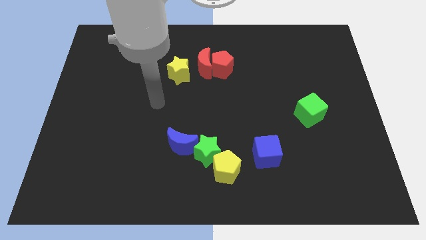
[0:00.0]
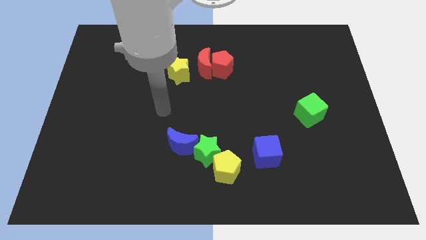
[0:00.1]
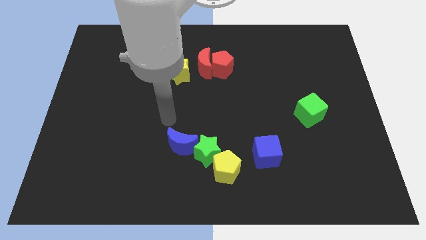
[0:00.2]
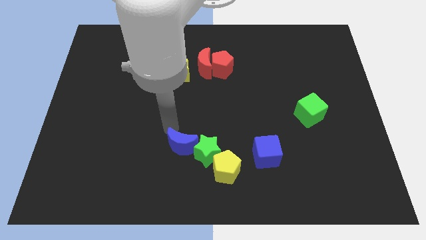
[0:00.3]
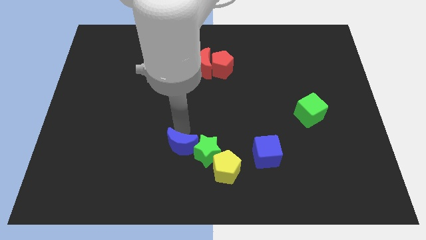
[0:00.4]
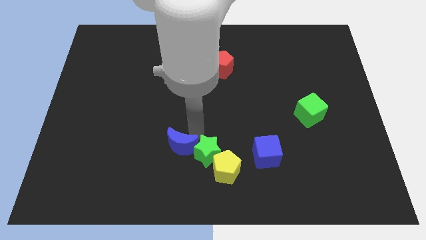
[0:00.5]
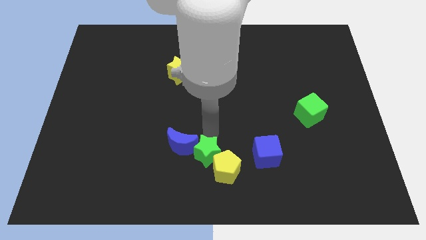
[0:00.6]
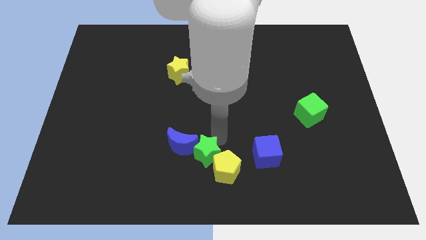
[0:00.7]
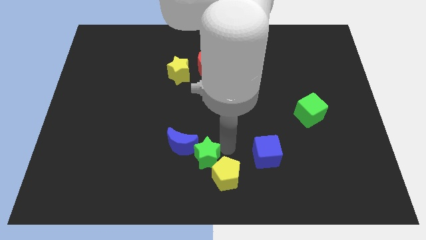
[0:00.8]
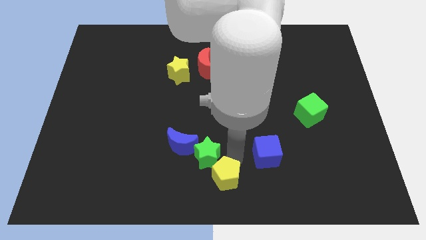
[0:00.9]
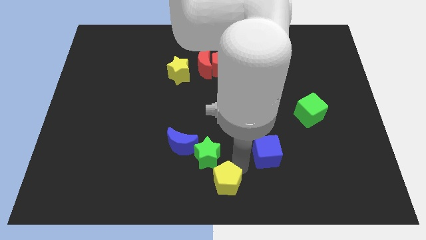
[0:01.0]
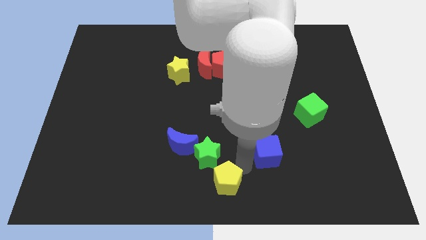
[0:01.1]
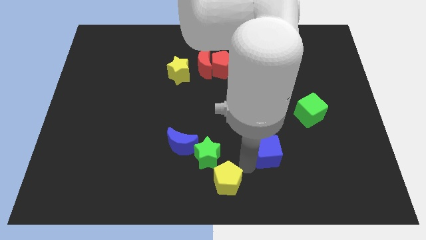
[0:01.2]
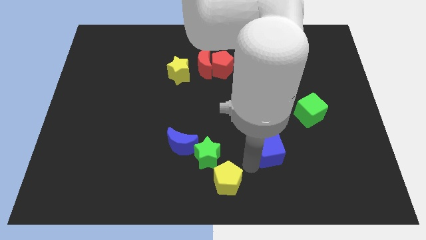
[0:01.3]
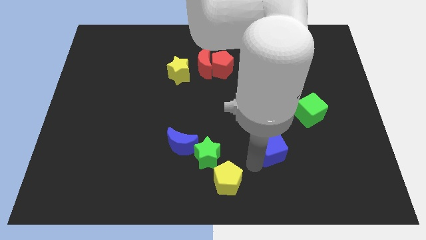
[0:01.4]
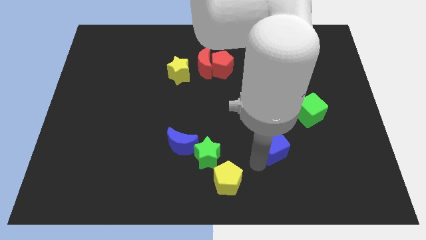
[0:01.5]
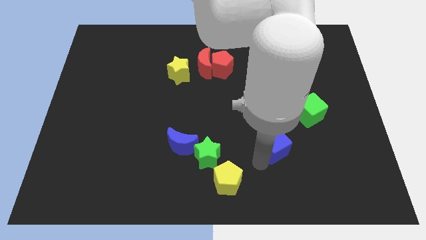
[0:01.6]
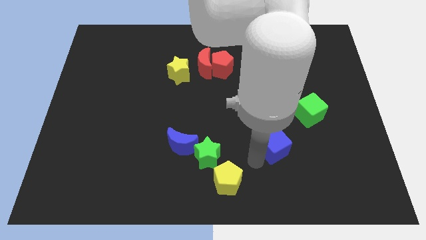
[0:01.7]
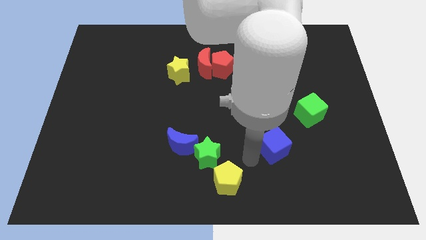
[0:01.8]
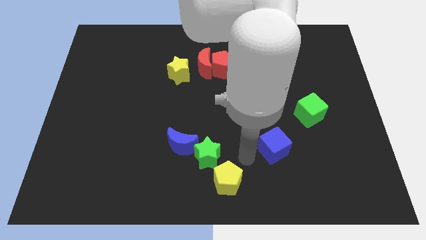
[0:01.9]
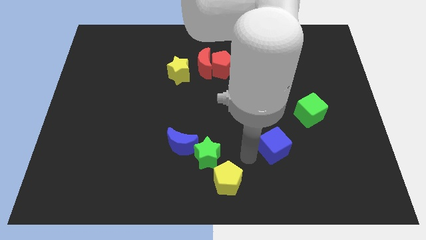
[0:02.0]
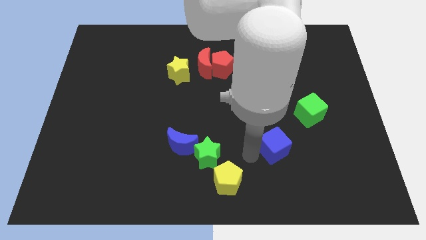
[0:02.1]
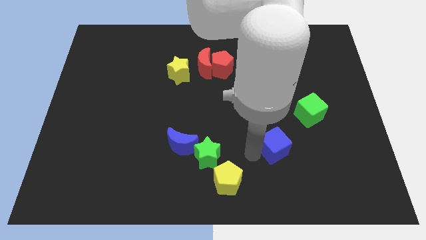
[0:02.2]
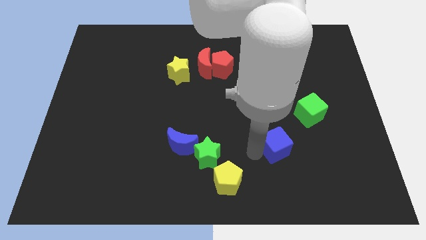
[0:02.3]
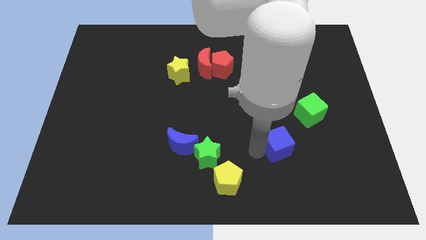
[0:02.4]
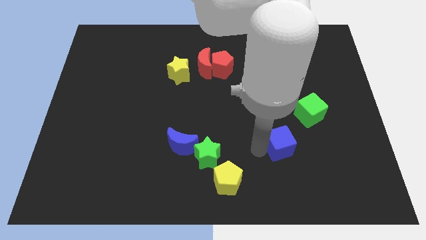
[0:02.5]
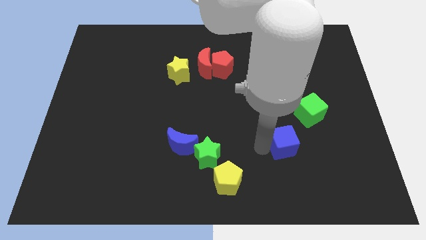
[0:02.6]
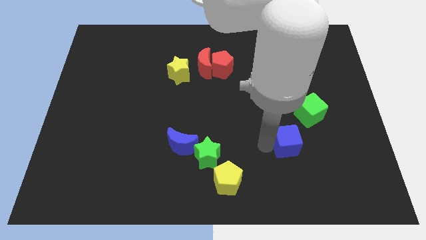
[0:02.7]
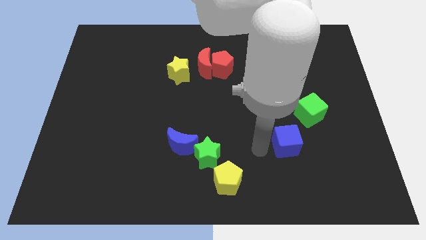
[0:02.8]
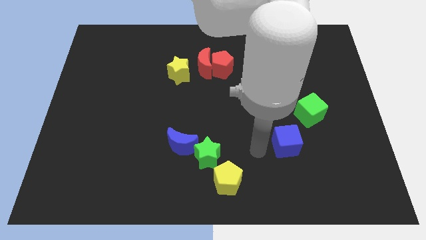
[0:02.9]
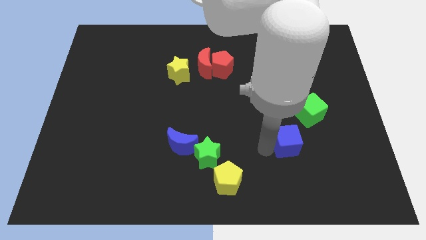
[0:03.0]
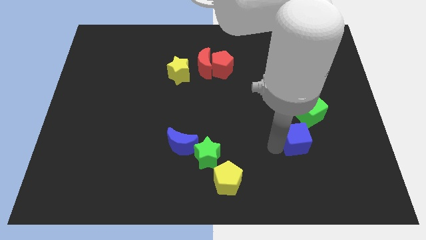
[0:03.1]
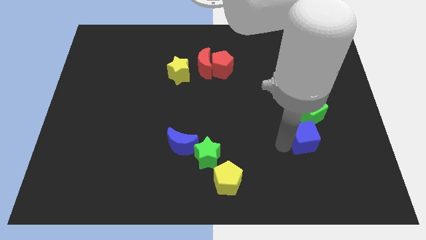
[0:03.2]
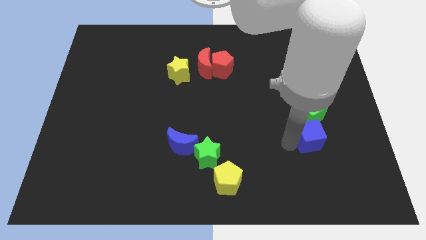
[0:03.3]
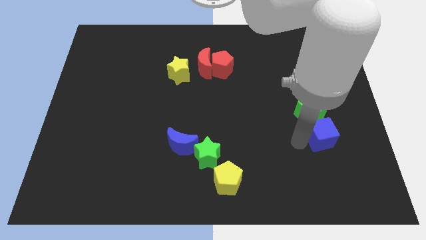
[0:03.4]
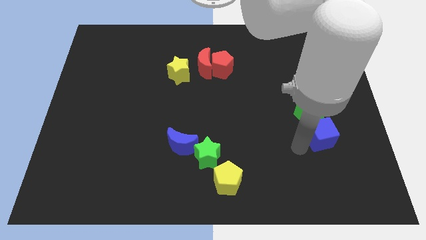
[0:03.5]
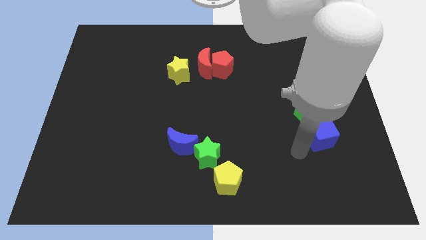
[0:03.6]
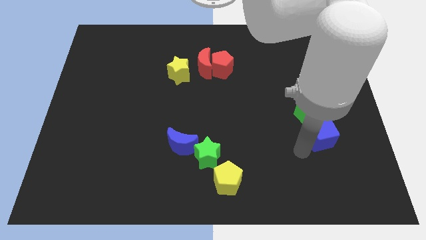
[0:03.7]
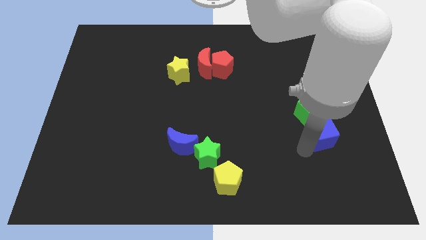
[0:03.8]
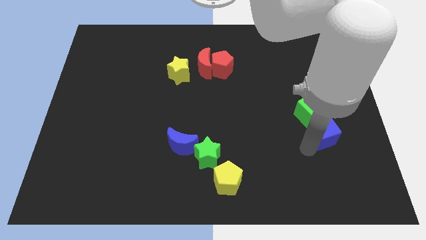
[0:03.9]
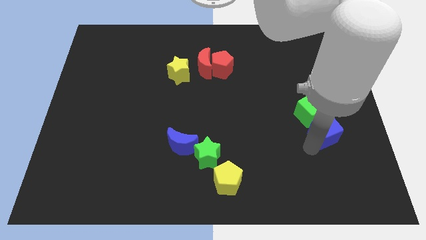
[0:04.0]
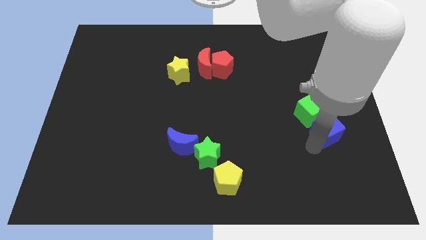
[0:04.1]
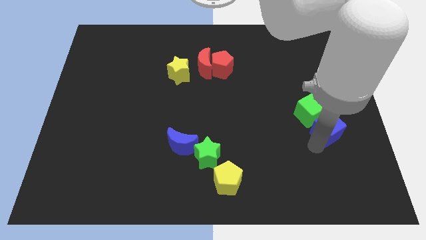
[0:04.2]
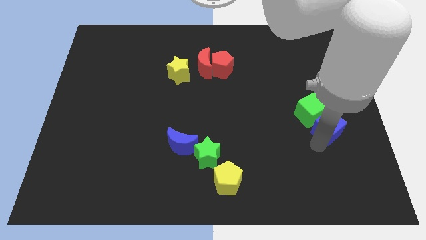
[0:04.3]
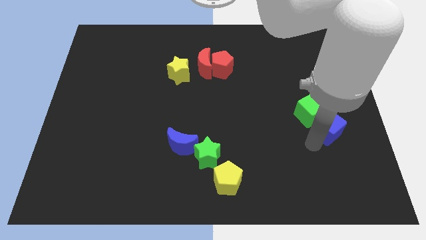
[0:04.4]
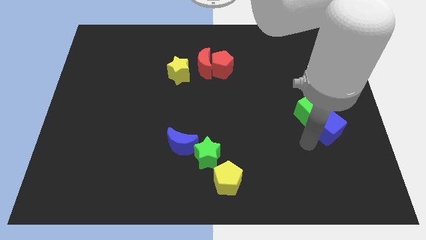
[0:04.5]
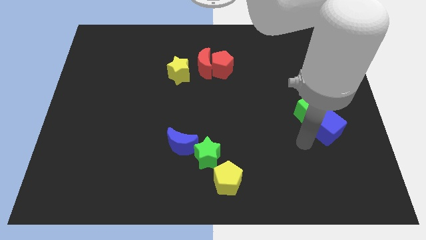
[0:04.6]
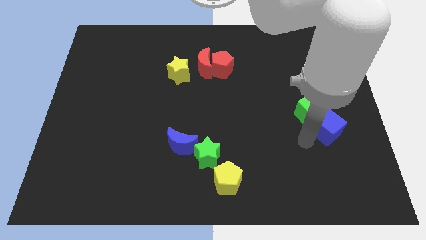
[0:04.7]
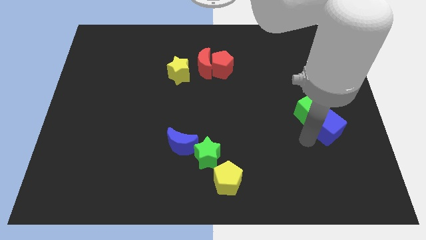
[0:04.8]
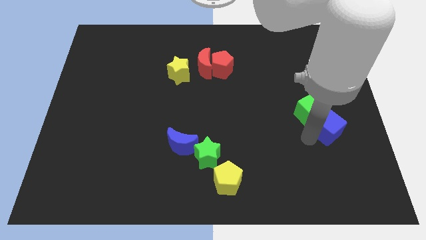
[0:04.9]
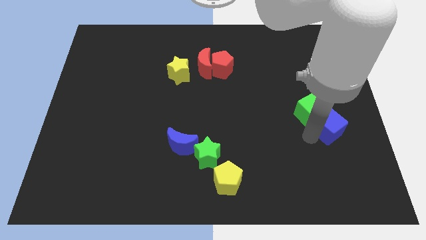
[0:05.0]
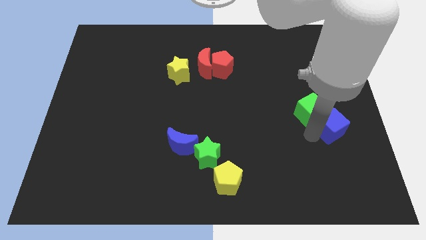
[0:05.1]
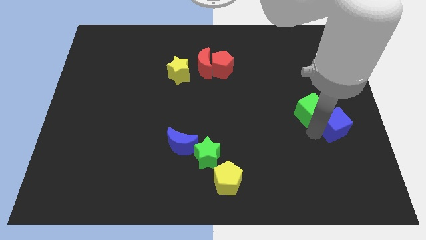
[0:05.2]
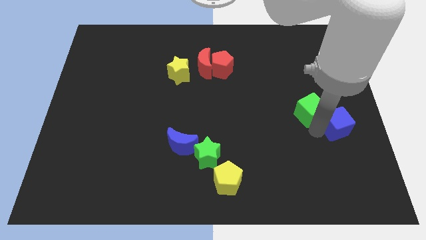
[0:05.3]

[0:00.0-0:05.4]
push the blue cube to the right side of the board

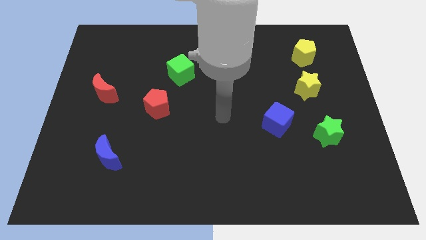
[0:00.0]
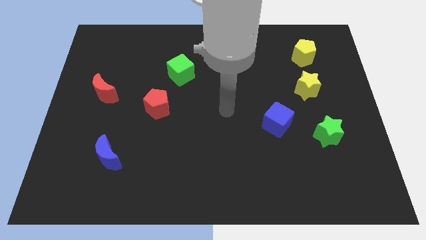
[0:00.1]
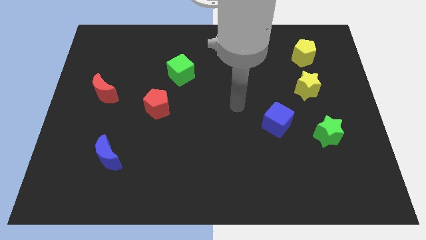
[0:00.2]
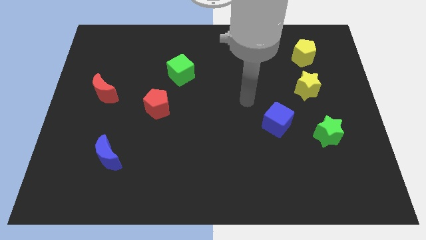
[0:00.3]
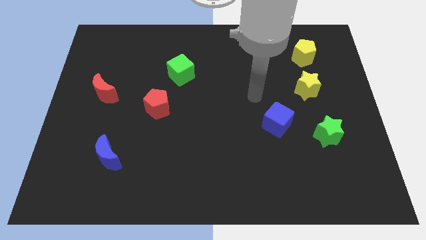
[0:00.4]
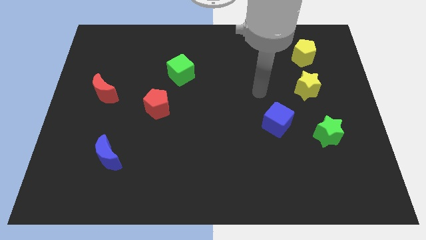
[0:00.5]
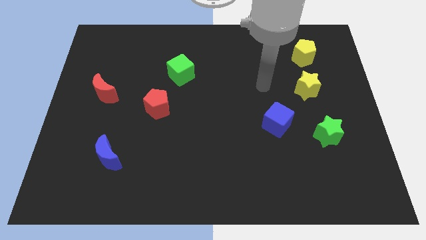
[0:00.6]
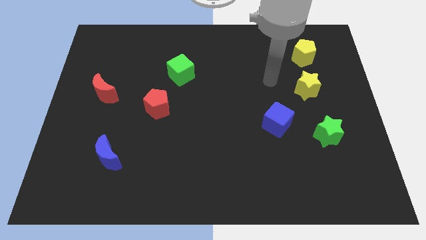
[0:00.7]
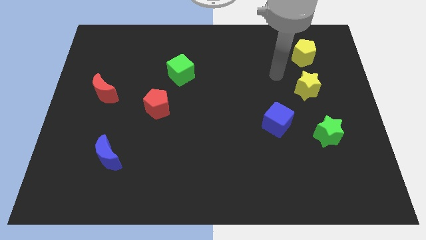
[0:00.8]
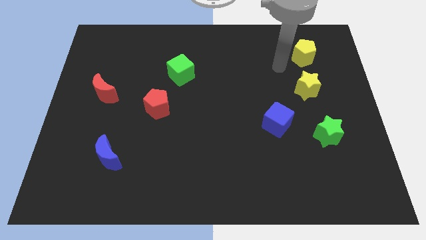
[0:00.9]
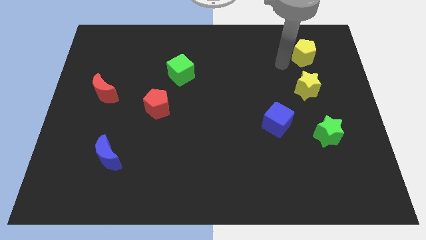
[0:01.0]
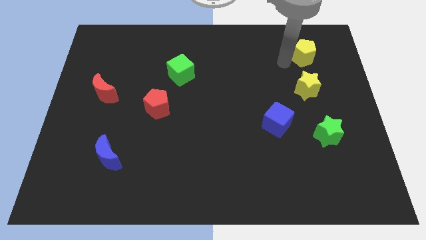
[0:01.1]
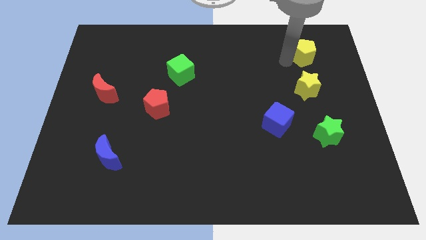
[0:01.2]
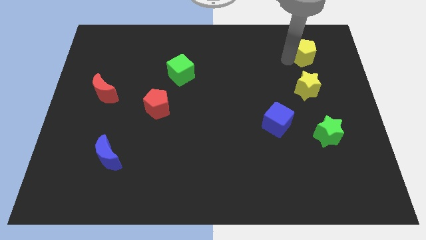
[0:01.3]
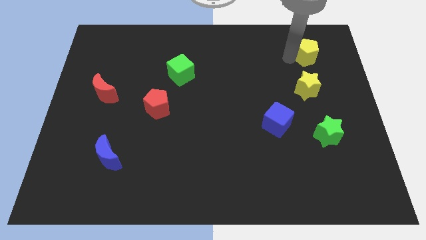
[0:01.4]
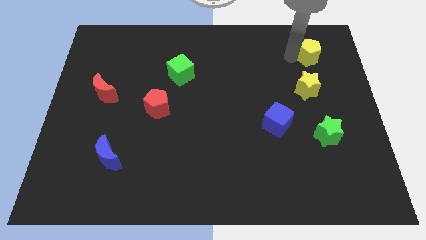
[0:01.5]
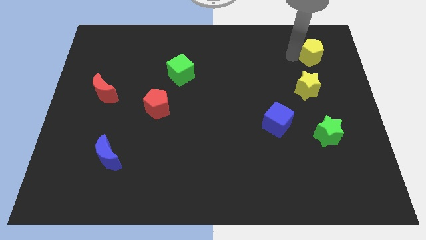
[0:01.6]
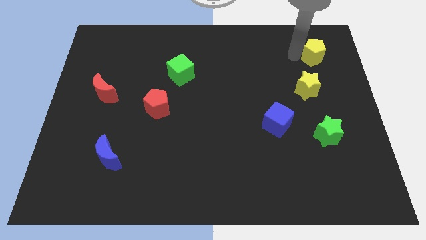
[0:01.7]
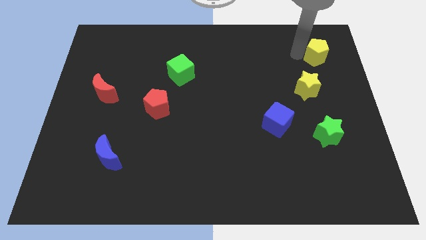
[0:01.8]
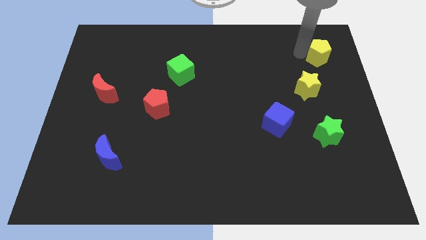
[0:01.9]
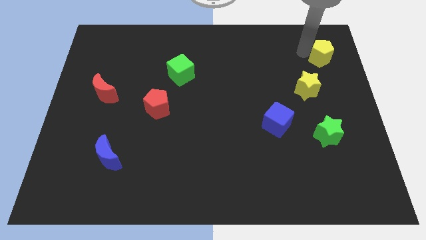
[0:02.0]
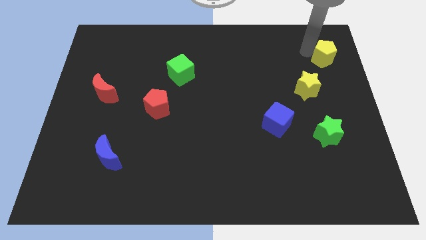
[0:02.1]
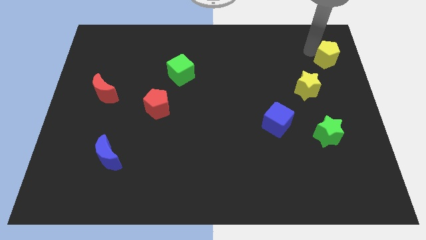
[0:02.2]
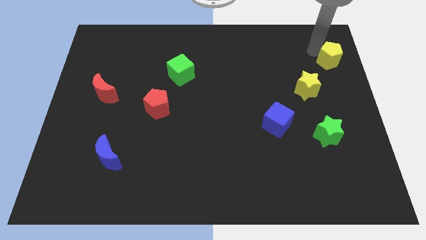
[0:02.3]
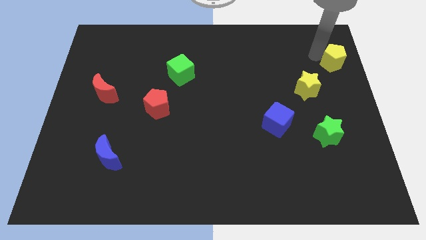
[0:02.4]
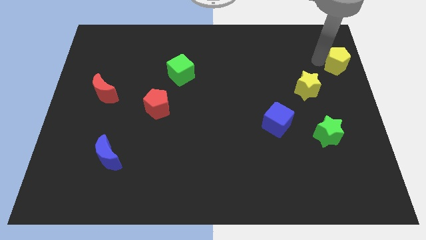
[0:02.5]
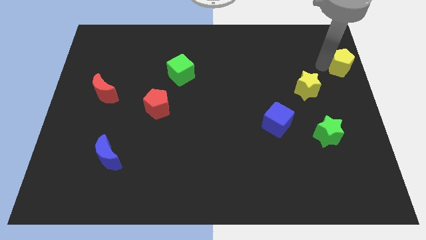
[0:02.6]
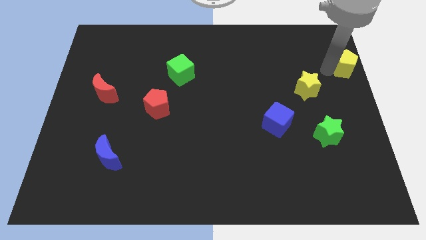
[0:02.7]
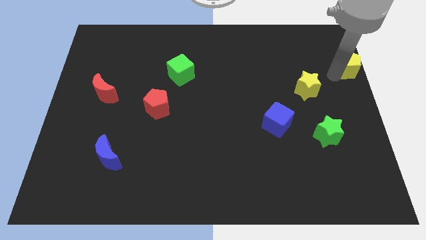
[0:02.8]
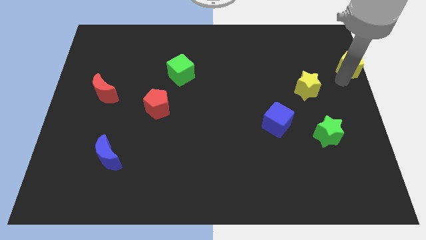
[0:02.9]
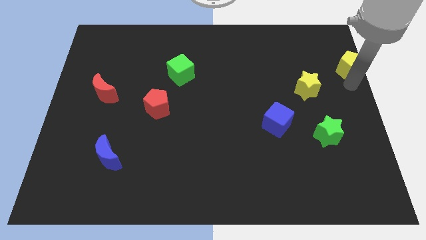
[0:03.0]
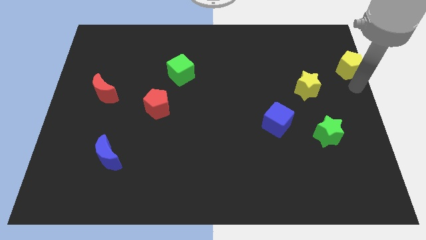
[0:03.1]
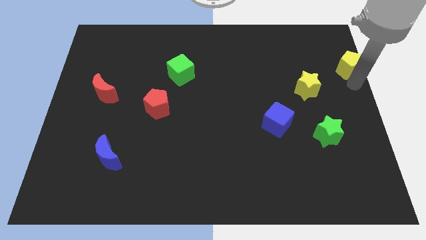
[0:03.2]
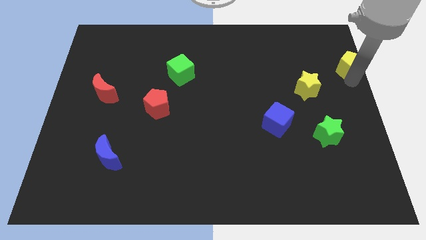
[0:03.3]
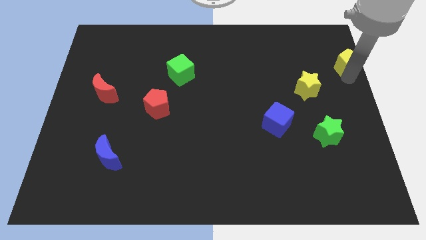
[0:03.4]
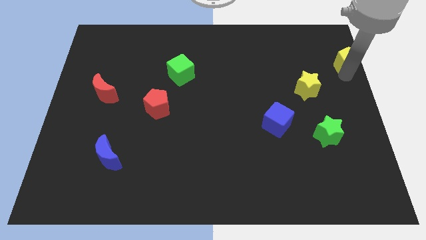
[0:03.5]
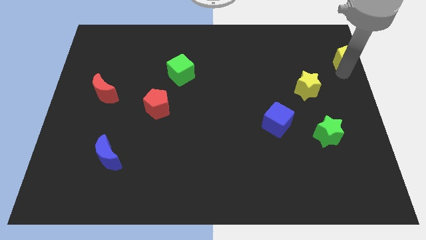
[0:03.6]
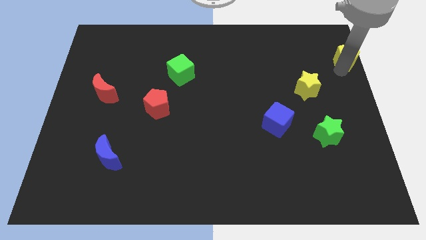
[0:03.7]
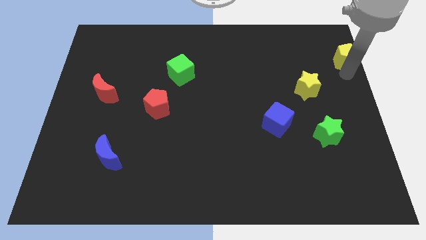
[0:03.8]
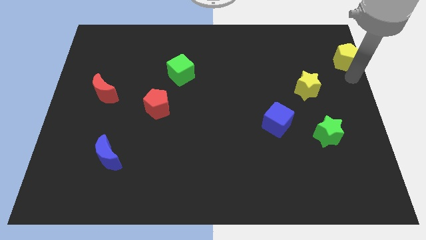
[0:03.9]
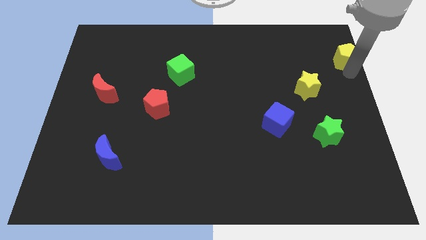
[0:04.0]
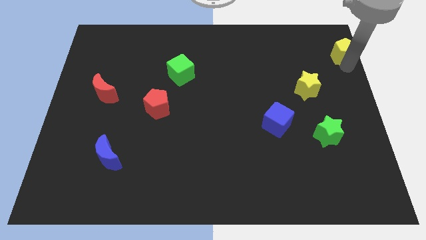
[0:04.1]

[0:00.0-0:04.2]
push the yellow pentagon to the upper right corner
